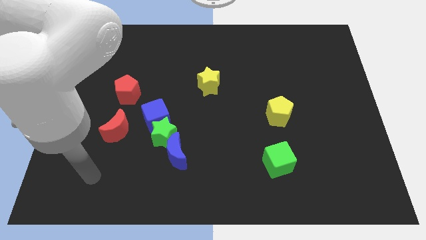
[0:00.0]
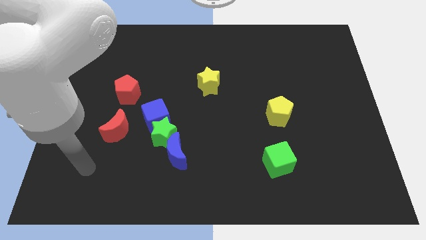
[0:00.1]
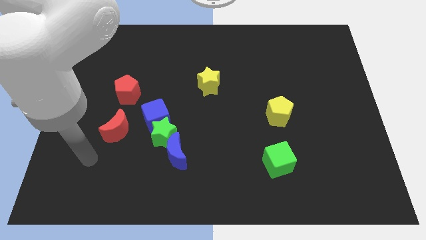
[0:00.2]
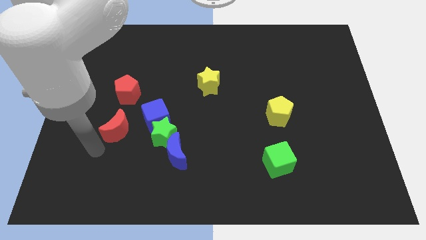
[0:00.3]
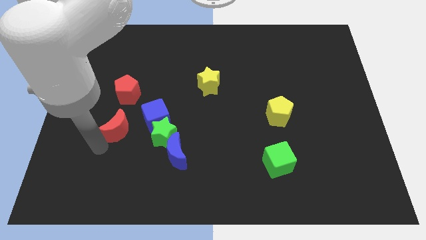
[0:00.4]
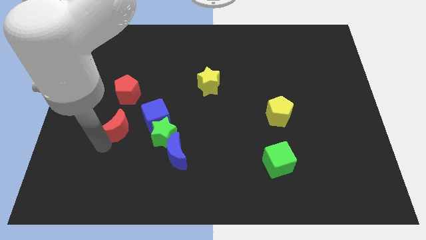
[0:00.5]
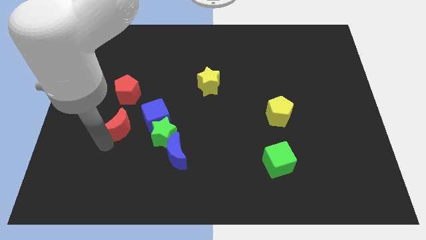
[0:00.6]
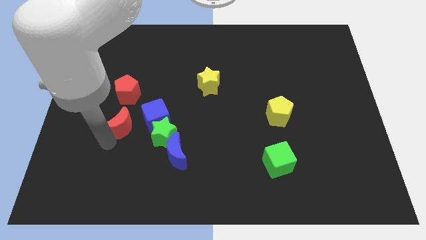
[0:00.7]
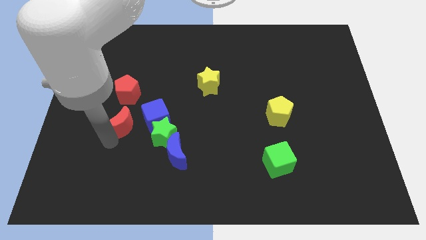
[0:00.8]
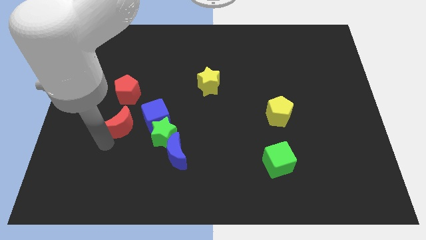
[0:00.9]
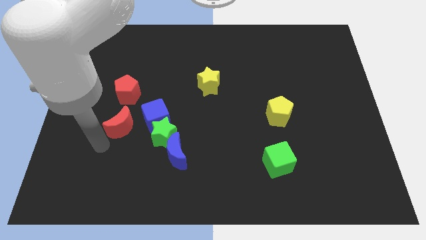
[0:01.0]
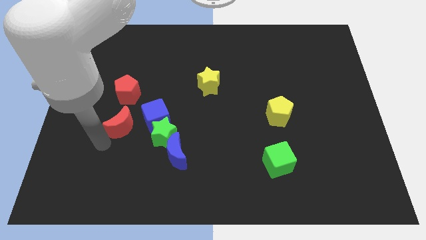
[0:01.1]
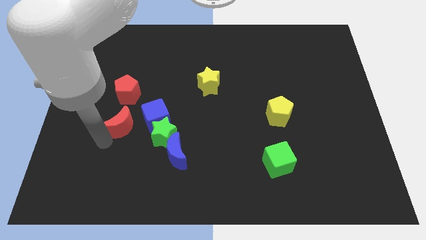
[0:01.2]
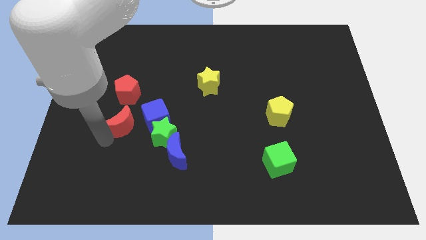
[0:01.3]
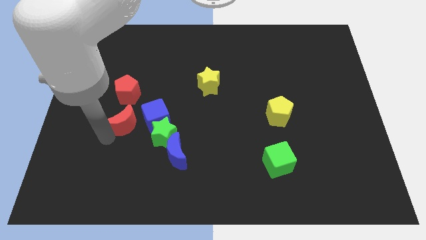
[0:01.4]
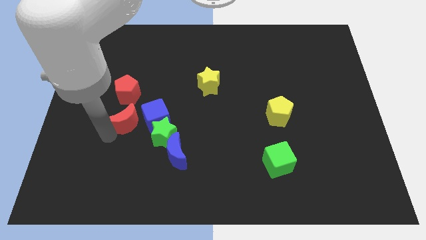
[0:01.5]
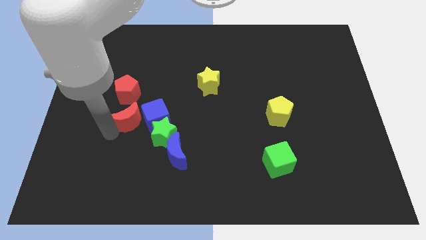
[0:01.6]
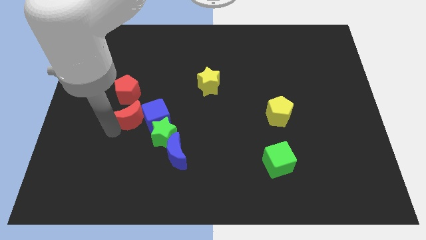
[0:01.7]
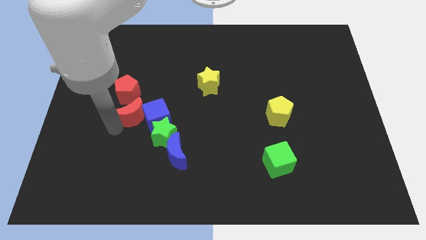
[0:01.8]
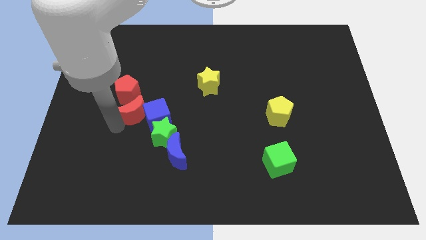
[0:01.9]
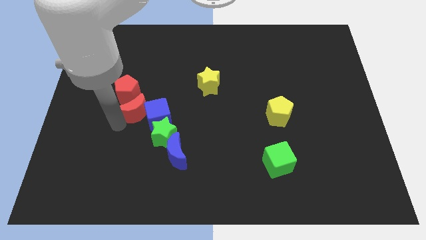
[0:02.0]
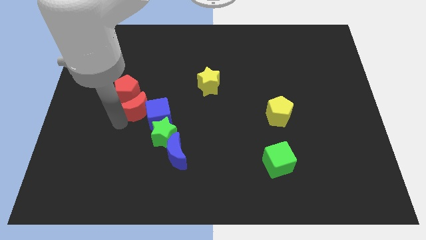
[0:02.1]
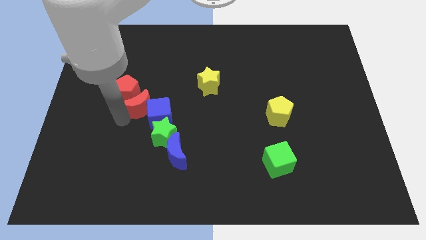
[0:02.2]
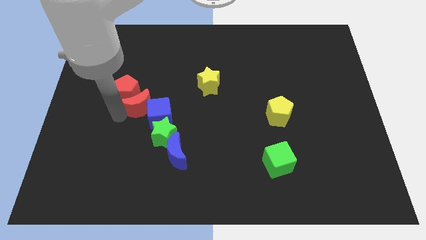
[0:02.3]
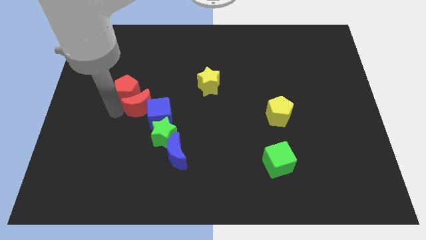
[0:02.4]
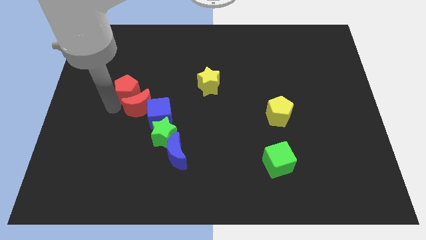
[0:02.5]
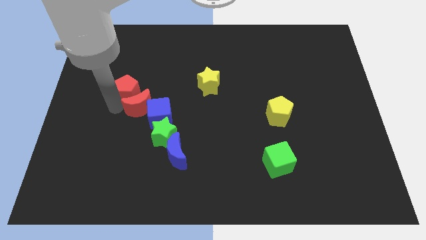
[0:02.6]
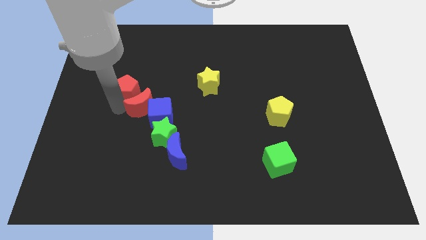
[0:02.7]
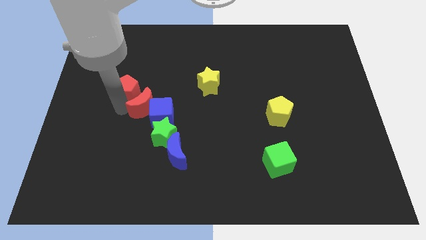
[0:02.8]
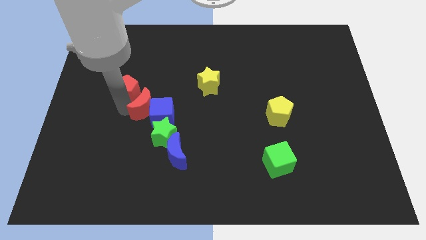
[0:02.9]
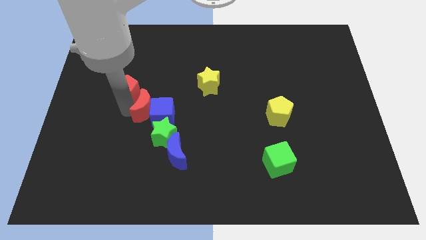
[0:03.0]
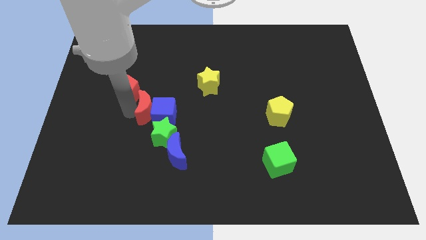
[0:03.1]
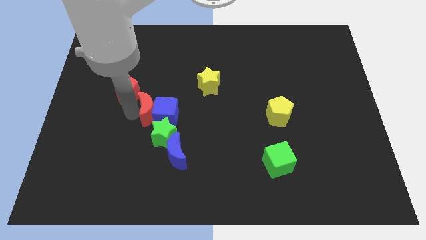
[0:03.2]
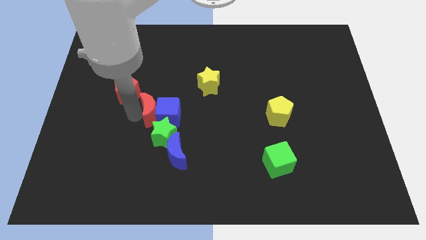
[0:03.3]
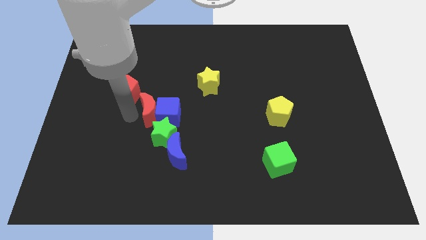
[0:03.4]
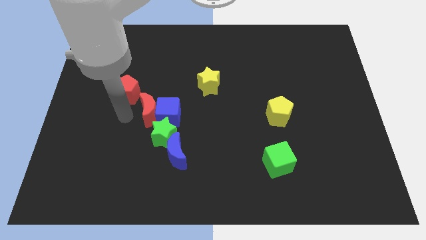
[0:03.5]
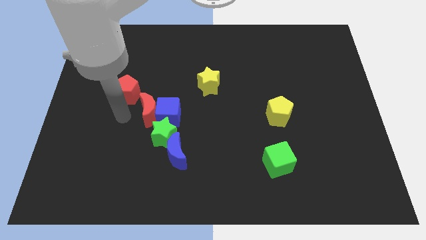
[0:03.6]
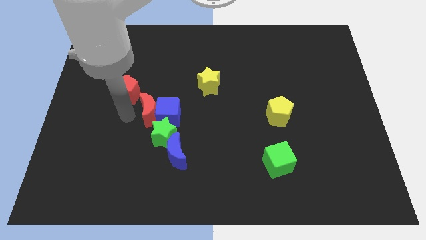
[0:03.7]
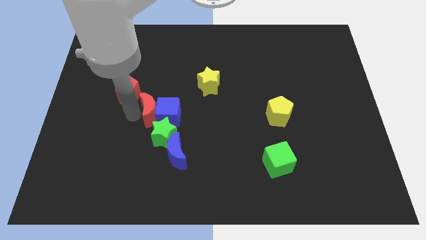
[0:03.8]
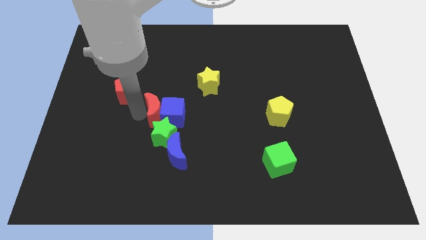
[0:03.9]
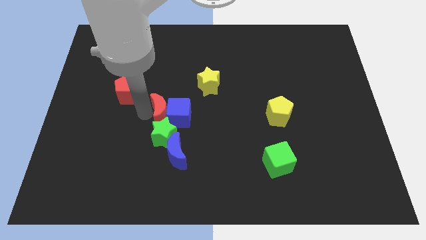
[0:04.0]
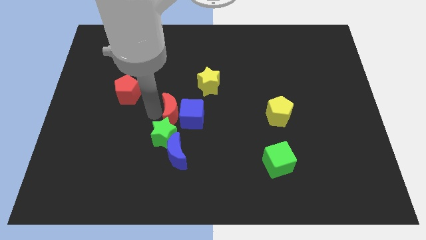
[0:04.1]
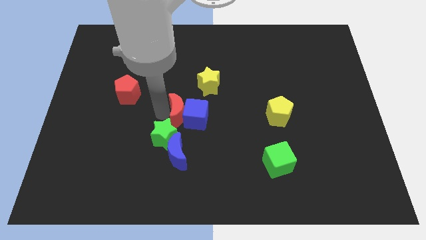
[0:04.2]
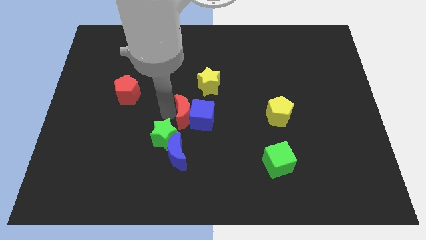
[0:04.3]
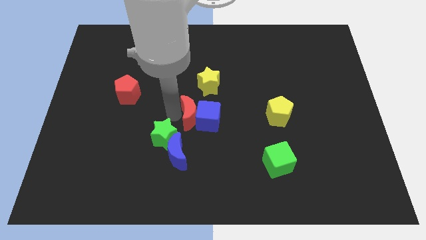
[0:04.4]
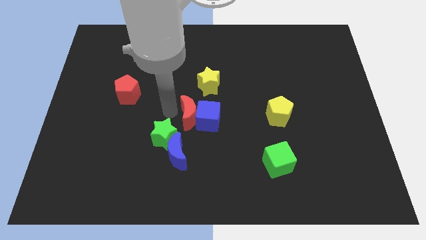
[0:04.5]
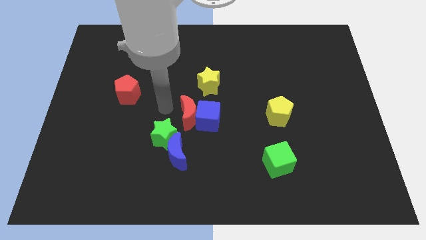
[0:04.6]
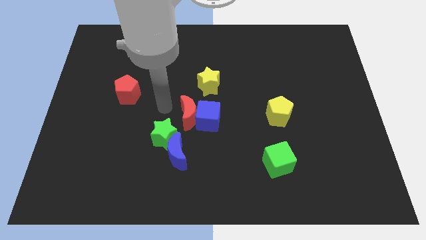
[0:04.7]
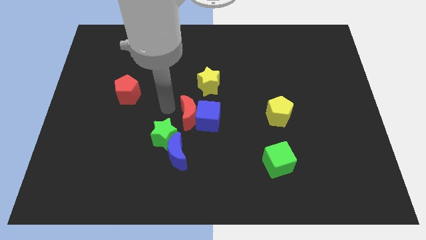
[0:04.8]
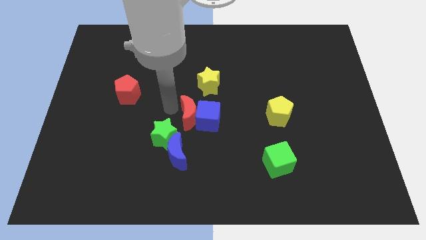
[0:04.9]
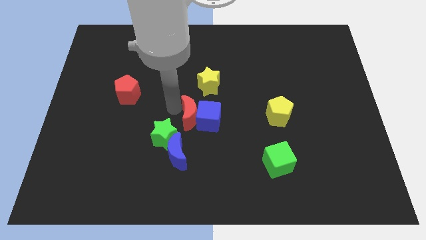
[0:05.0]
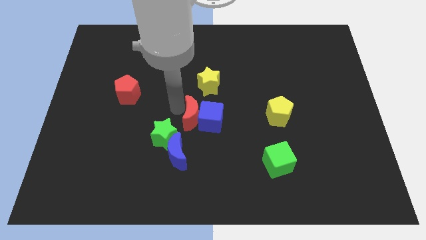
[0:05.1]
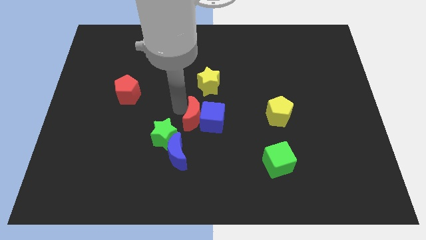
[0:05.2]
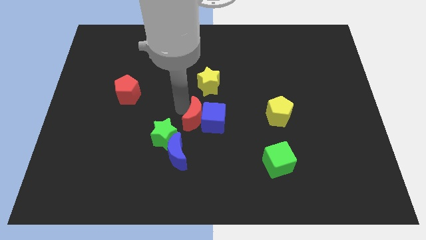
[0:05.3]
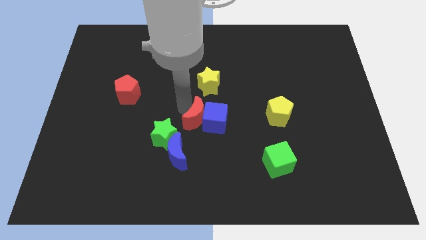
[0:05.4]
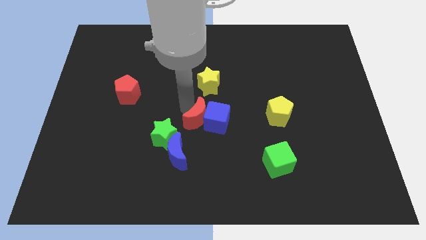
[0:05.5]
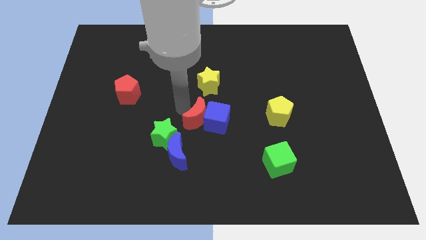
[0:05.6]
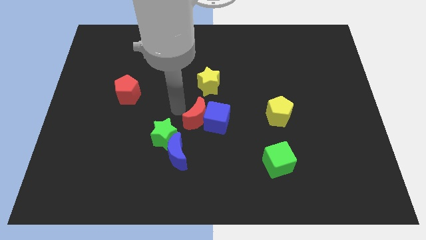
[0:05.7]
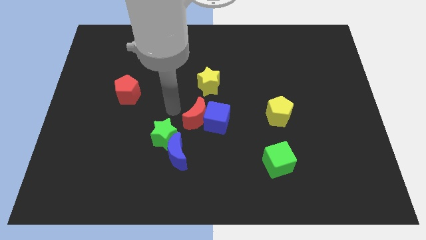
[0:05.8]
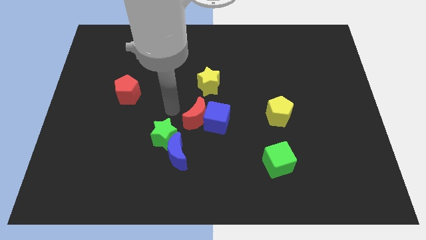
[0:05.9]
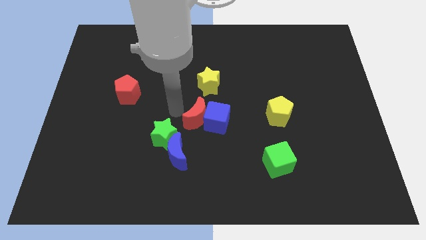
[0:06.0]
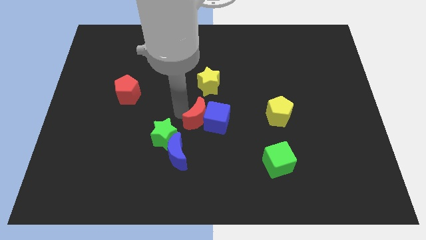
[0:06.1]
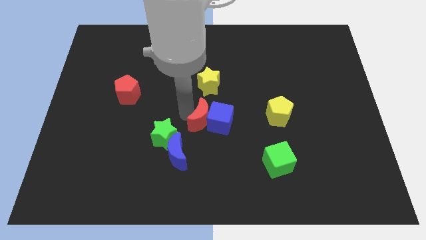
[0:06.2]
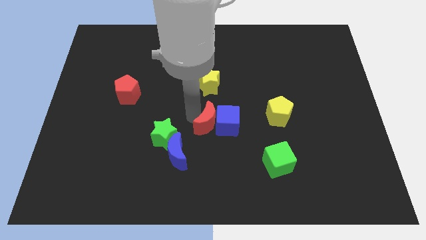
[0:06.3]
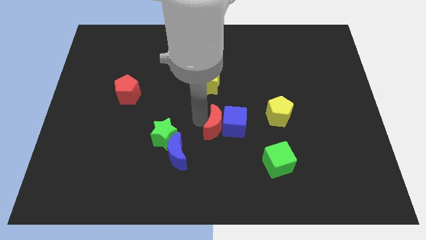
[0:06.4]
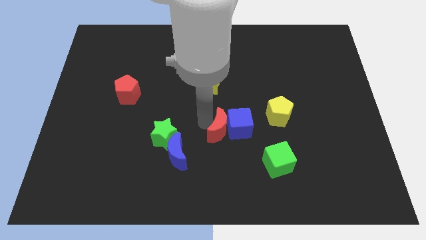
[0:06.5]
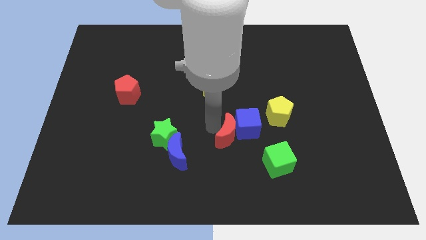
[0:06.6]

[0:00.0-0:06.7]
move the red moon to the top left side of the green cube

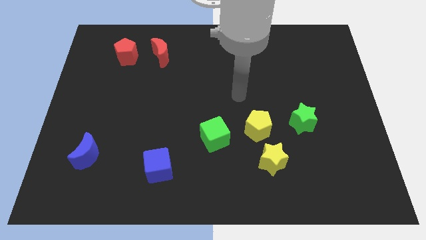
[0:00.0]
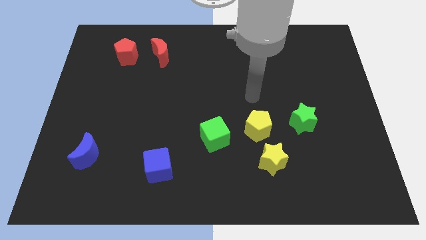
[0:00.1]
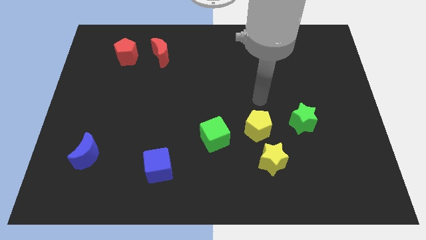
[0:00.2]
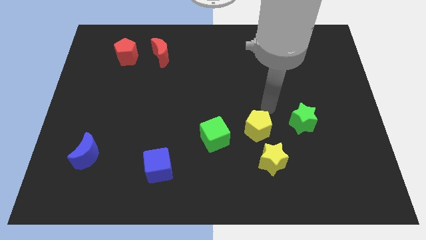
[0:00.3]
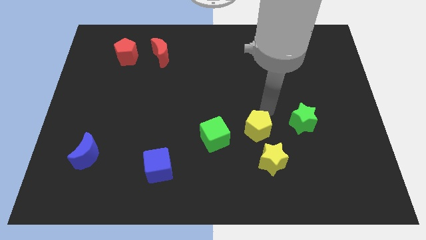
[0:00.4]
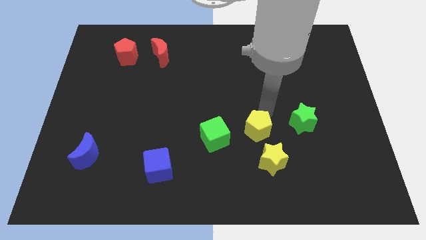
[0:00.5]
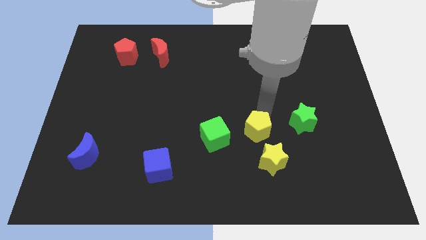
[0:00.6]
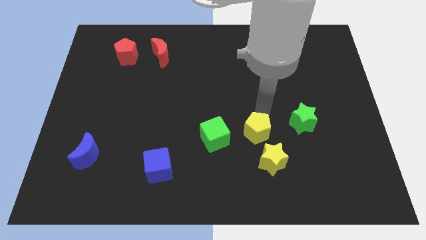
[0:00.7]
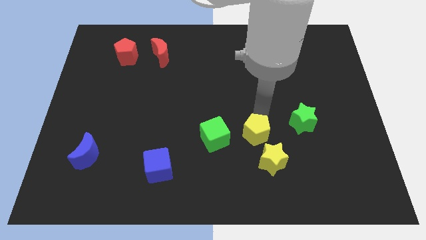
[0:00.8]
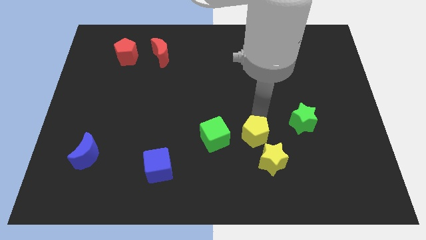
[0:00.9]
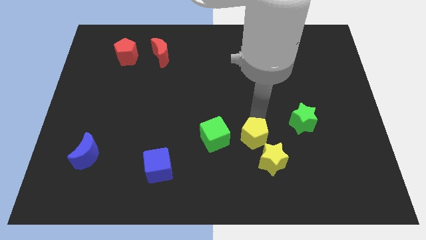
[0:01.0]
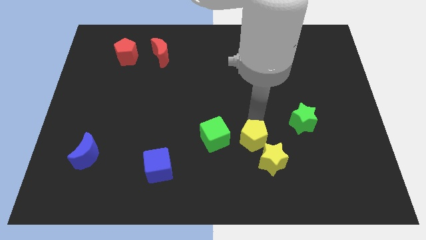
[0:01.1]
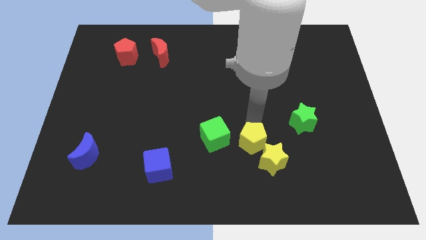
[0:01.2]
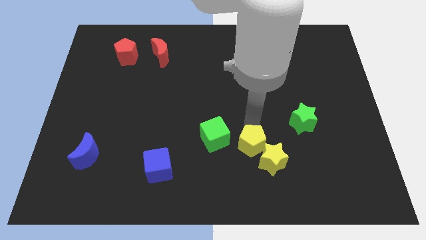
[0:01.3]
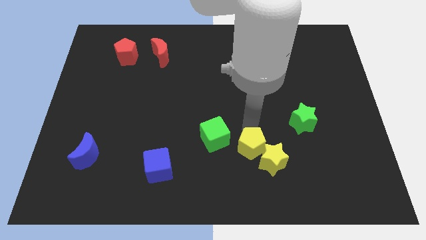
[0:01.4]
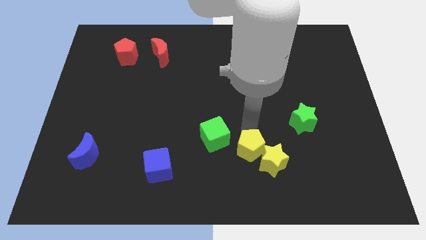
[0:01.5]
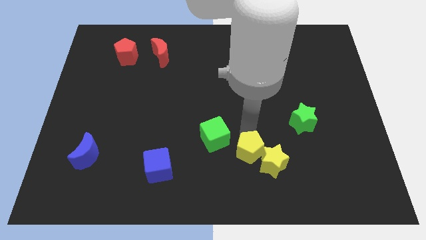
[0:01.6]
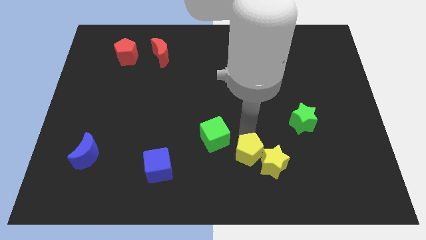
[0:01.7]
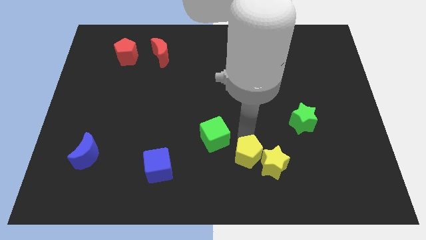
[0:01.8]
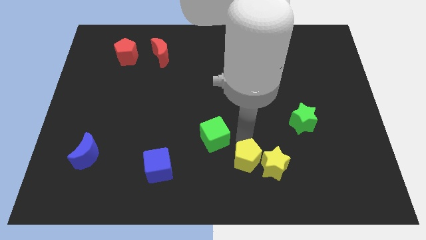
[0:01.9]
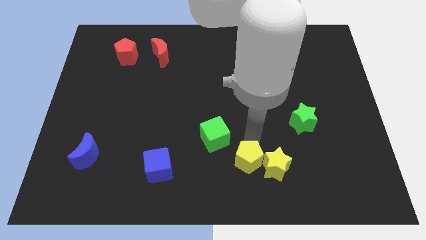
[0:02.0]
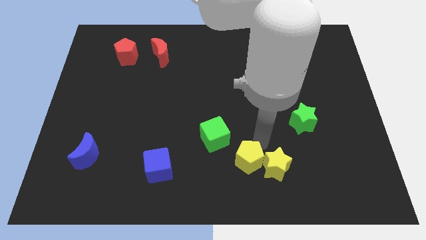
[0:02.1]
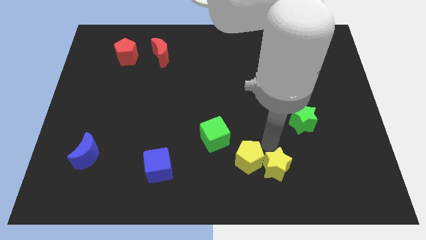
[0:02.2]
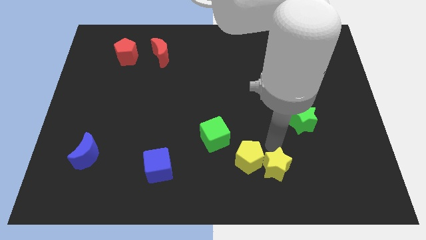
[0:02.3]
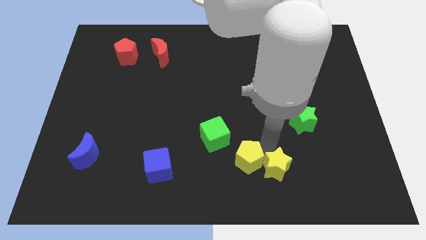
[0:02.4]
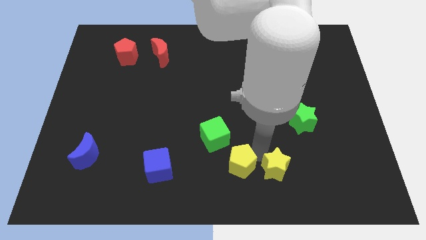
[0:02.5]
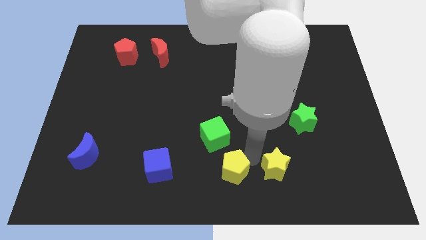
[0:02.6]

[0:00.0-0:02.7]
slide the yellow pentagon to the bottom of the green cube
